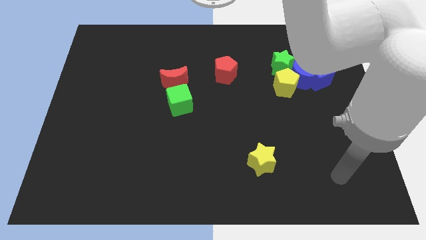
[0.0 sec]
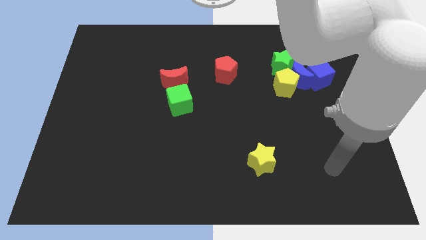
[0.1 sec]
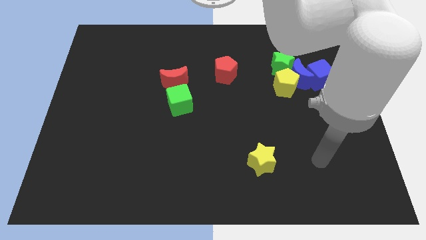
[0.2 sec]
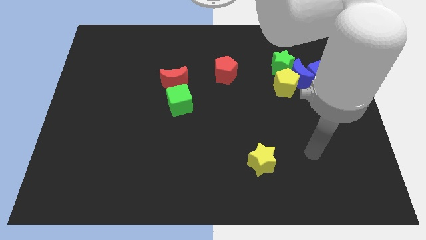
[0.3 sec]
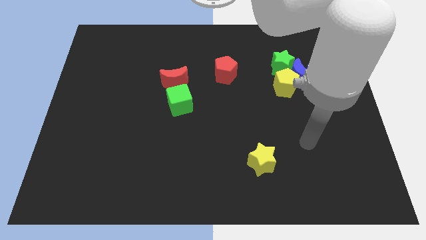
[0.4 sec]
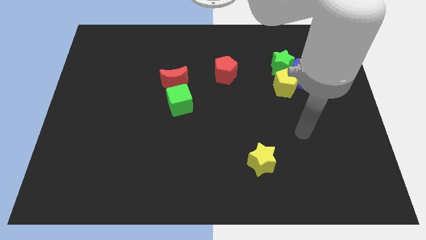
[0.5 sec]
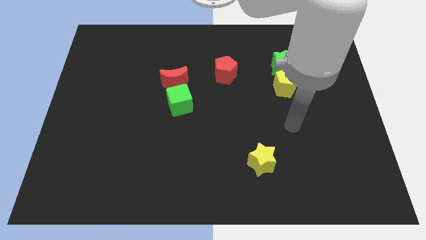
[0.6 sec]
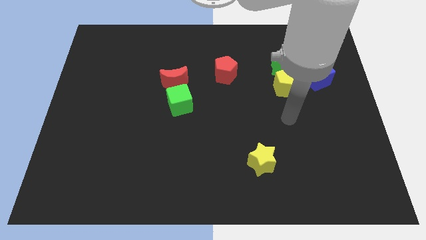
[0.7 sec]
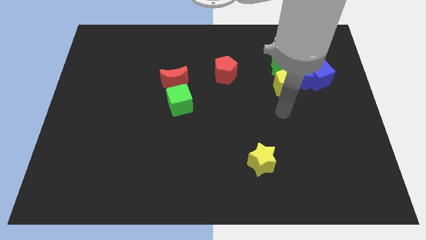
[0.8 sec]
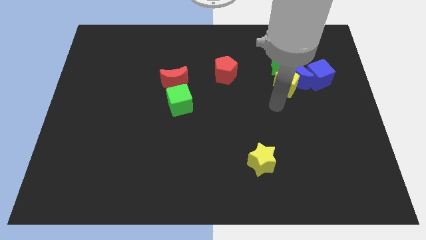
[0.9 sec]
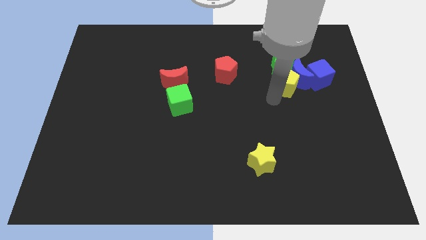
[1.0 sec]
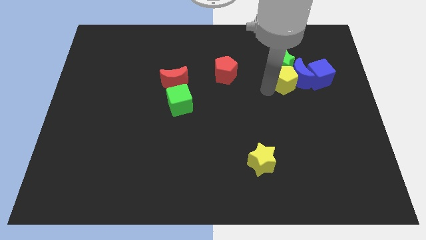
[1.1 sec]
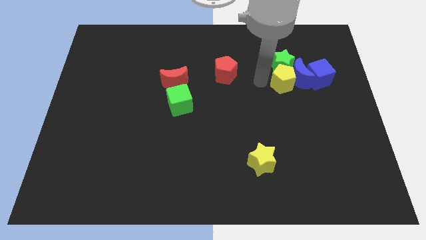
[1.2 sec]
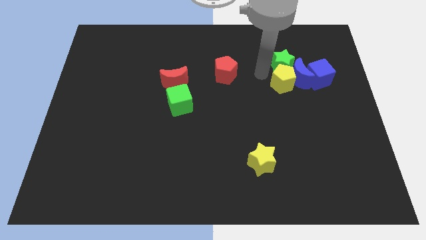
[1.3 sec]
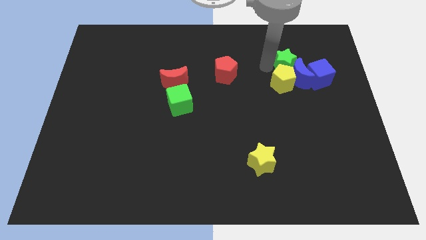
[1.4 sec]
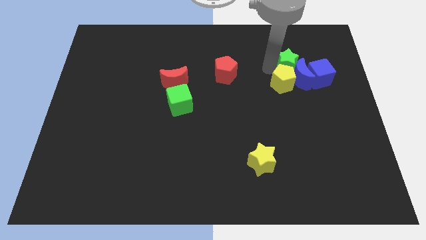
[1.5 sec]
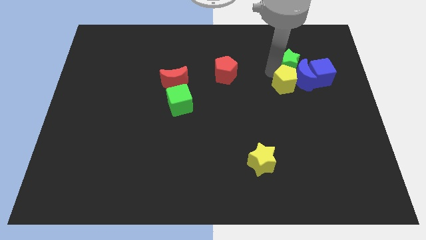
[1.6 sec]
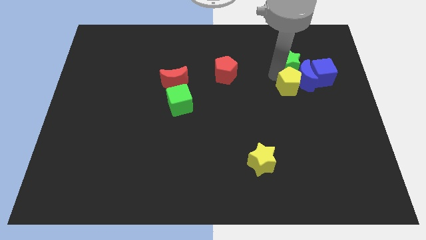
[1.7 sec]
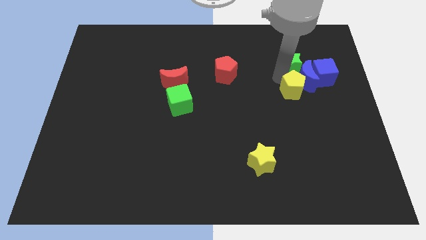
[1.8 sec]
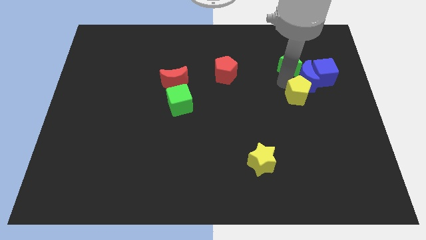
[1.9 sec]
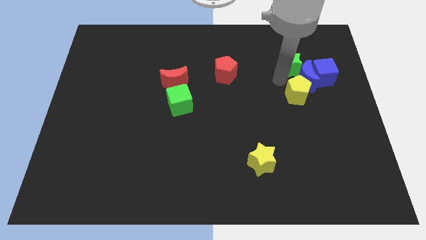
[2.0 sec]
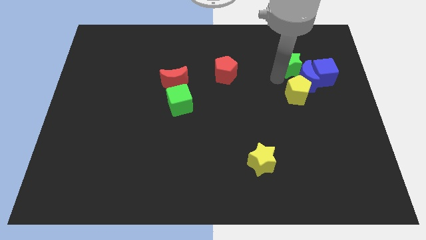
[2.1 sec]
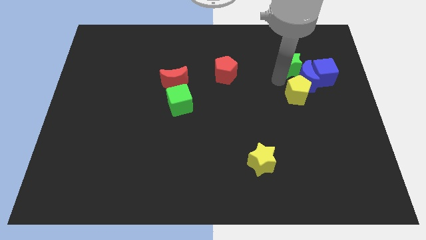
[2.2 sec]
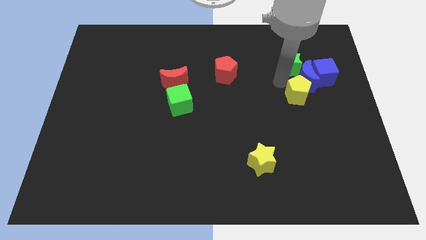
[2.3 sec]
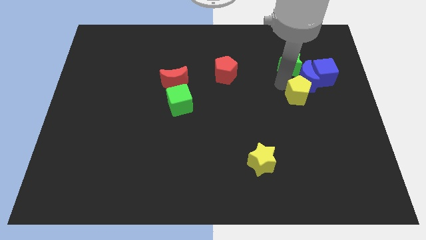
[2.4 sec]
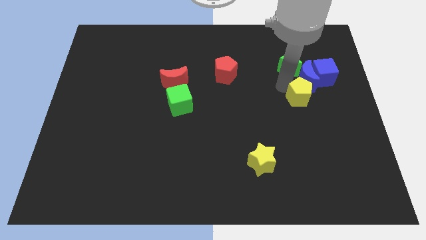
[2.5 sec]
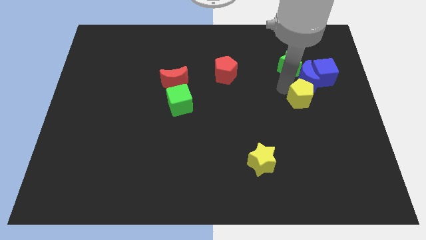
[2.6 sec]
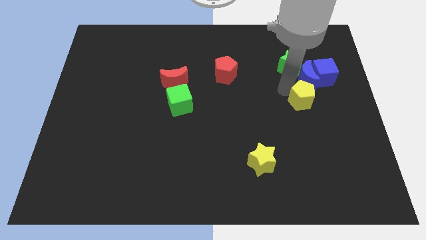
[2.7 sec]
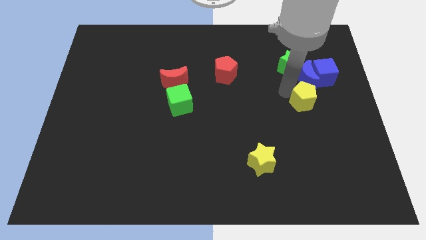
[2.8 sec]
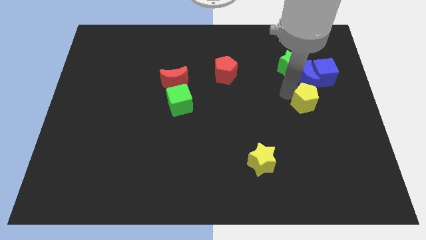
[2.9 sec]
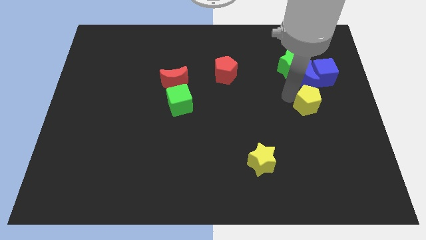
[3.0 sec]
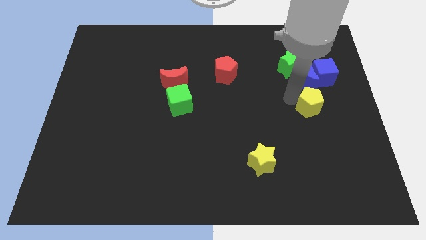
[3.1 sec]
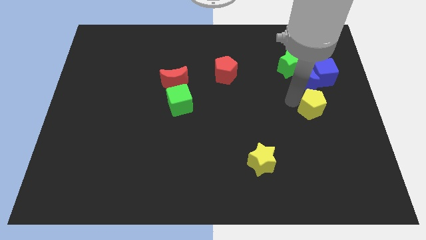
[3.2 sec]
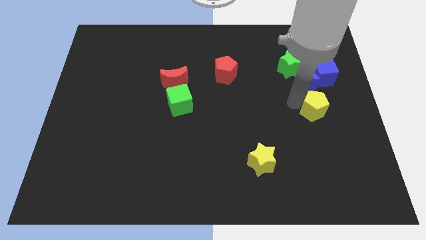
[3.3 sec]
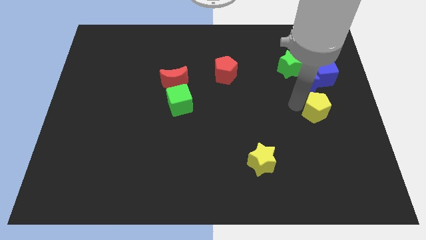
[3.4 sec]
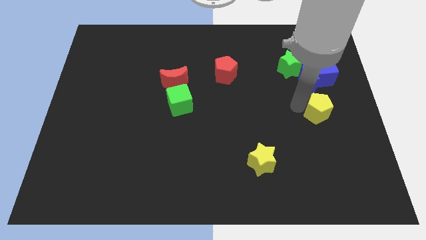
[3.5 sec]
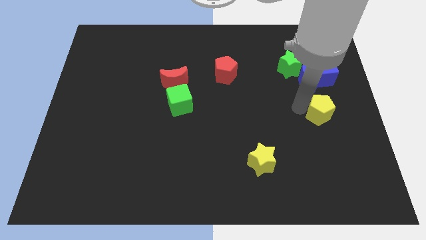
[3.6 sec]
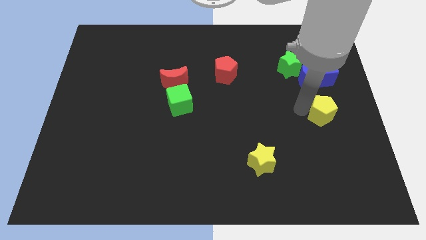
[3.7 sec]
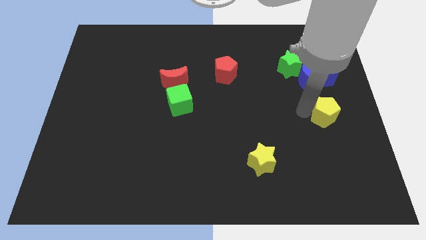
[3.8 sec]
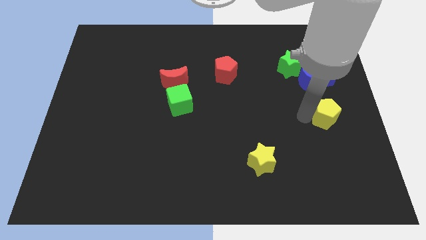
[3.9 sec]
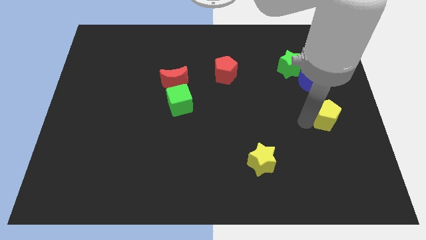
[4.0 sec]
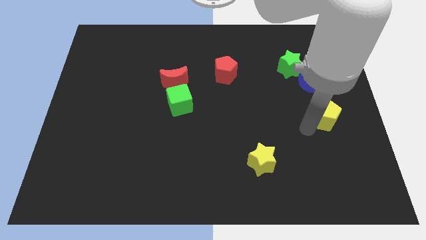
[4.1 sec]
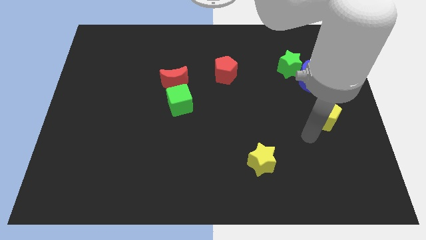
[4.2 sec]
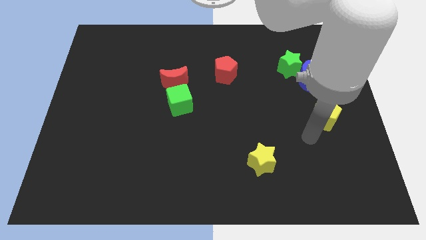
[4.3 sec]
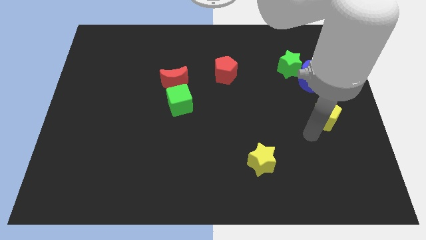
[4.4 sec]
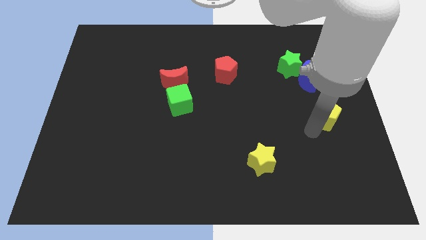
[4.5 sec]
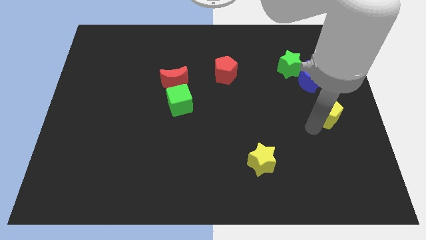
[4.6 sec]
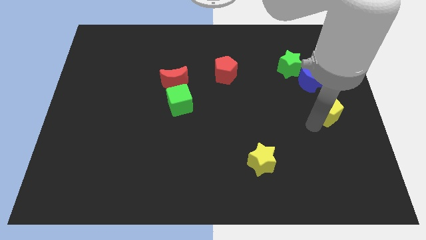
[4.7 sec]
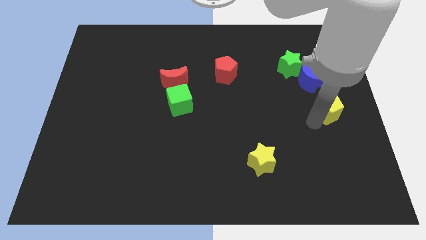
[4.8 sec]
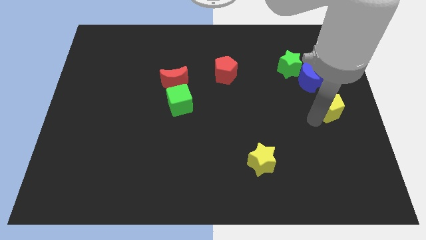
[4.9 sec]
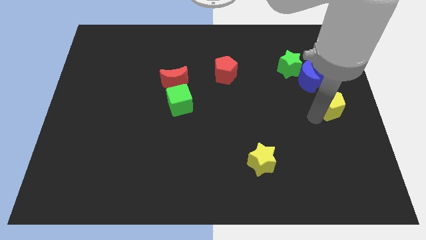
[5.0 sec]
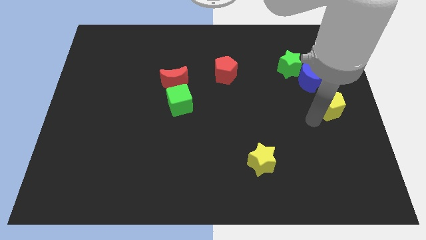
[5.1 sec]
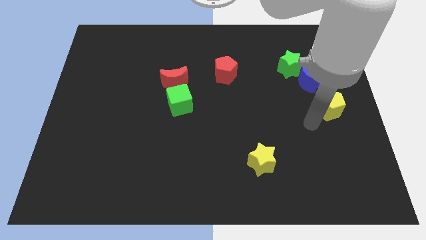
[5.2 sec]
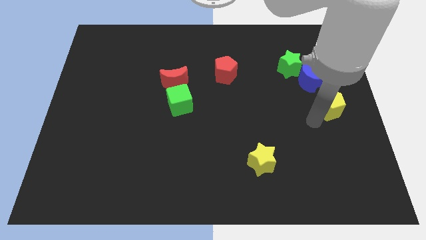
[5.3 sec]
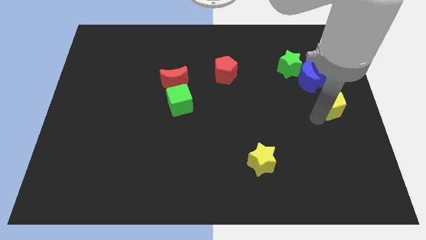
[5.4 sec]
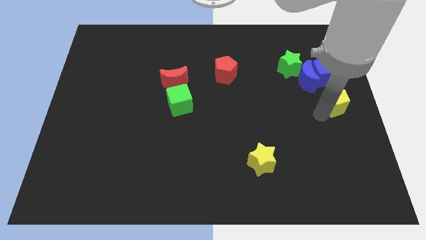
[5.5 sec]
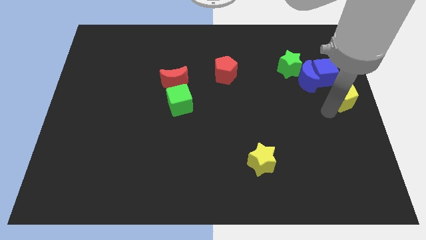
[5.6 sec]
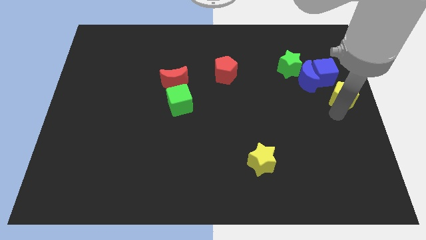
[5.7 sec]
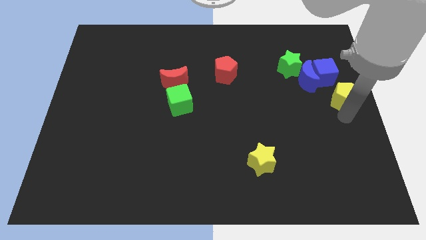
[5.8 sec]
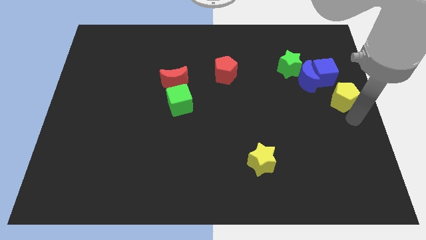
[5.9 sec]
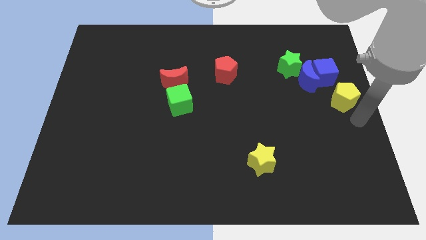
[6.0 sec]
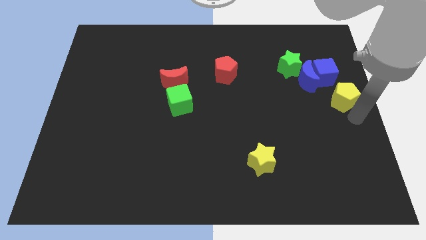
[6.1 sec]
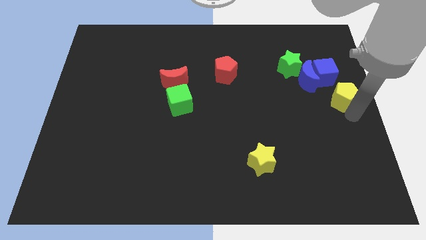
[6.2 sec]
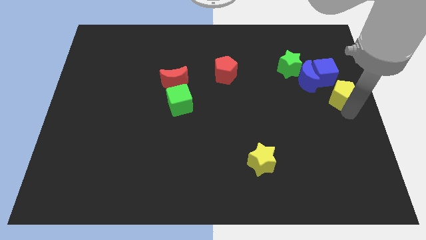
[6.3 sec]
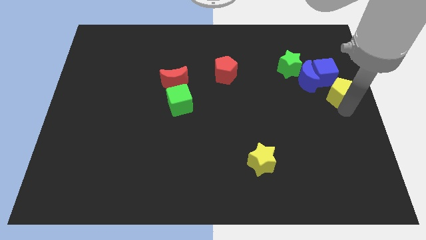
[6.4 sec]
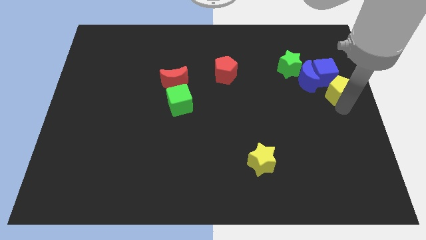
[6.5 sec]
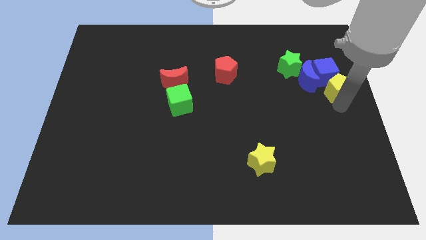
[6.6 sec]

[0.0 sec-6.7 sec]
put the yellow pentagon towards the blue cube

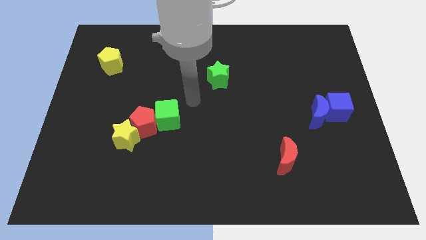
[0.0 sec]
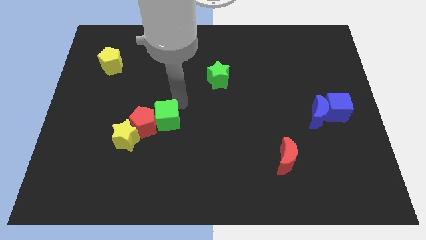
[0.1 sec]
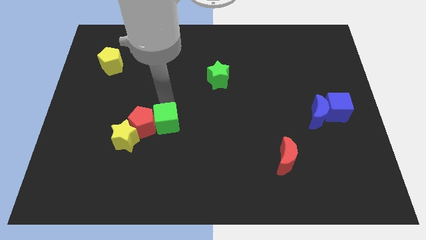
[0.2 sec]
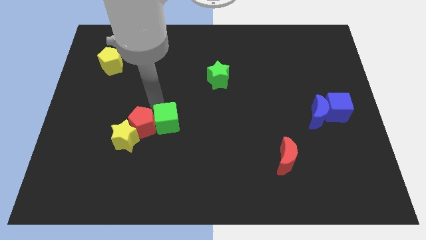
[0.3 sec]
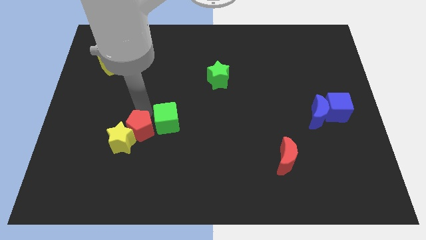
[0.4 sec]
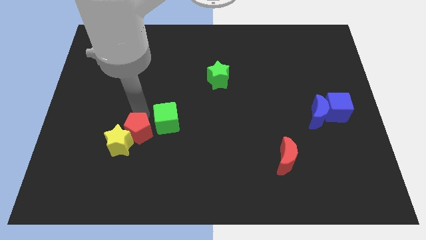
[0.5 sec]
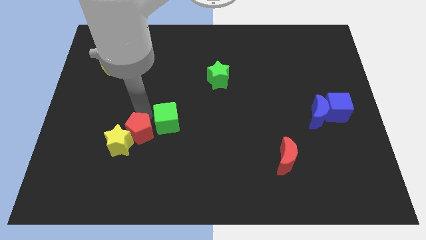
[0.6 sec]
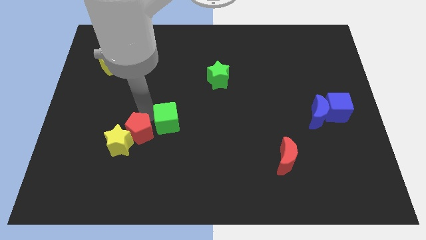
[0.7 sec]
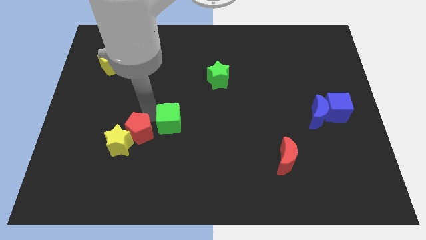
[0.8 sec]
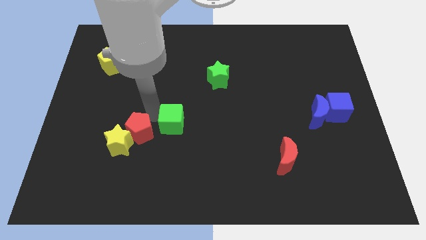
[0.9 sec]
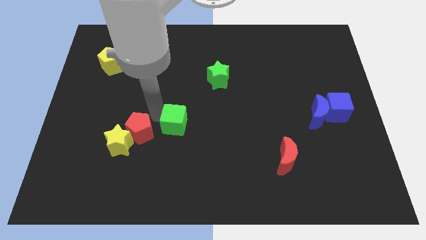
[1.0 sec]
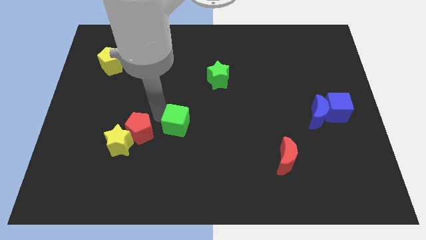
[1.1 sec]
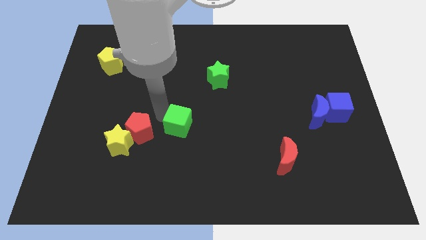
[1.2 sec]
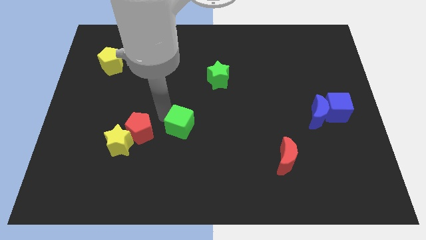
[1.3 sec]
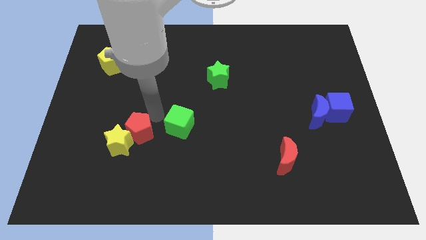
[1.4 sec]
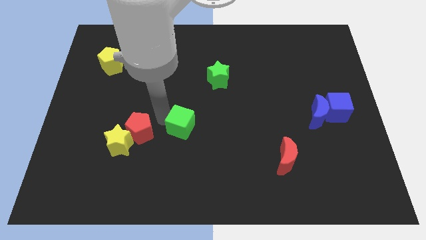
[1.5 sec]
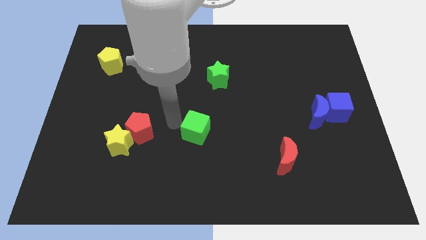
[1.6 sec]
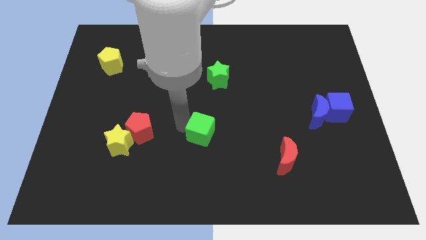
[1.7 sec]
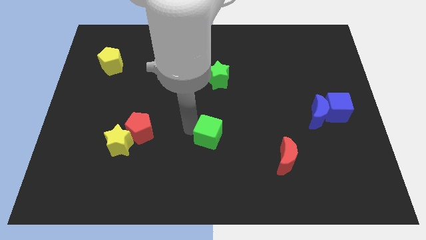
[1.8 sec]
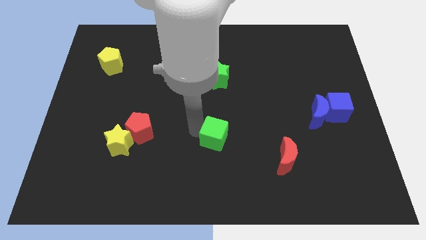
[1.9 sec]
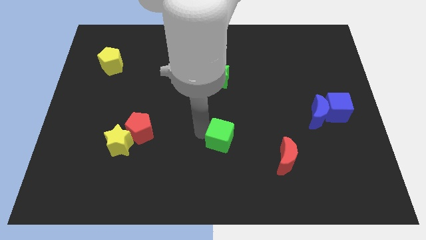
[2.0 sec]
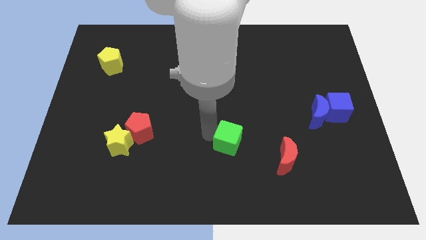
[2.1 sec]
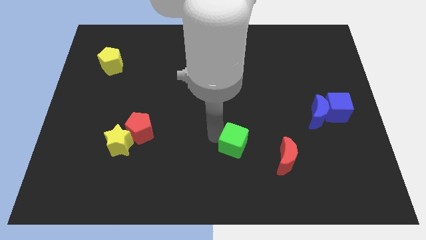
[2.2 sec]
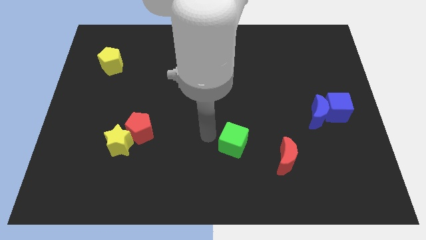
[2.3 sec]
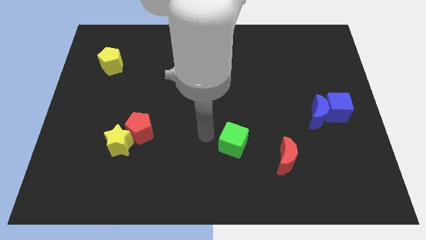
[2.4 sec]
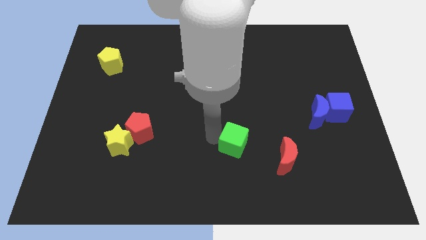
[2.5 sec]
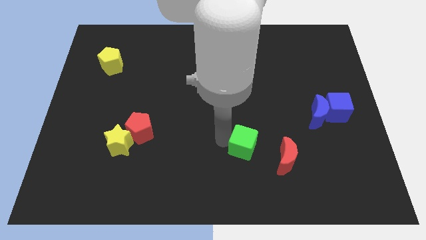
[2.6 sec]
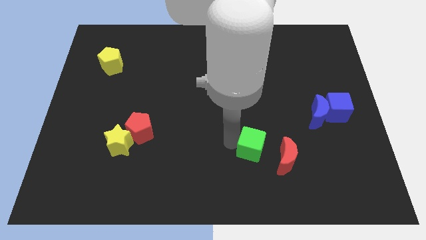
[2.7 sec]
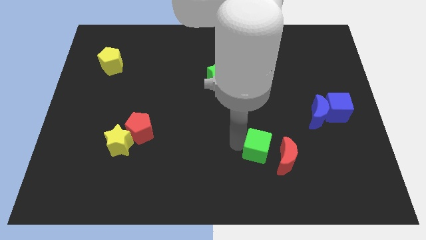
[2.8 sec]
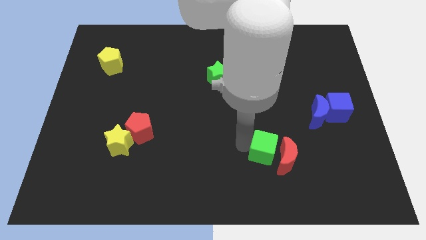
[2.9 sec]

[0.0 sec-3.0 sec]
move the green cube next to the red moon
